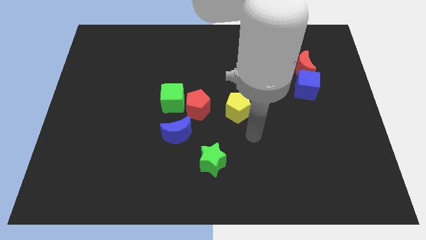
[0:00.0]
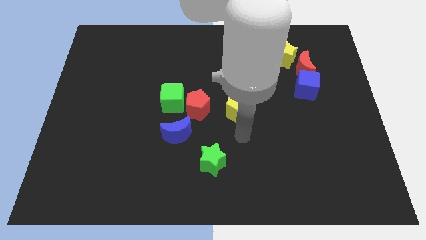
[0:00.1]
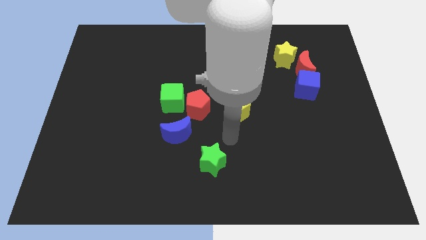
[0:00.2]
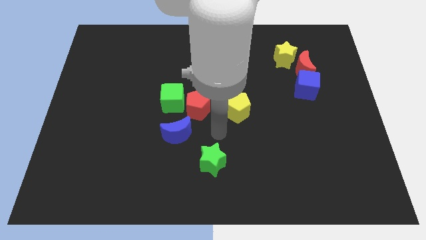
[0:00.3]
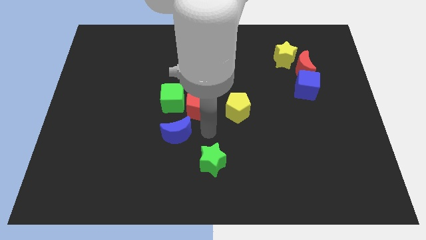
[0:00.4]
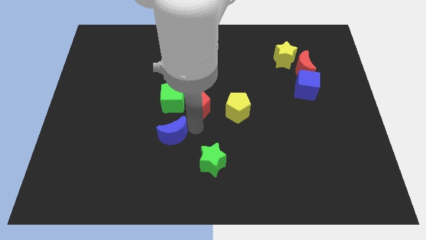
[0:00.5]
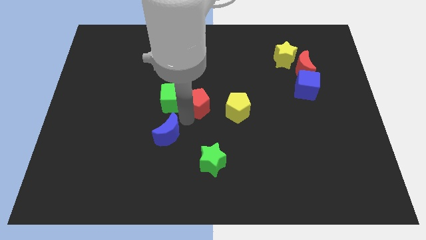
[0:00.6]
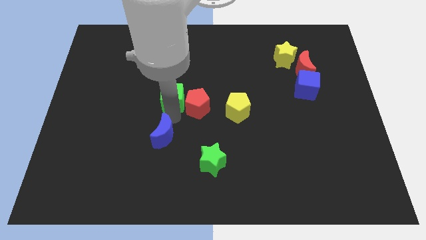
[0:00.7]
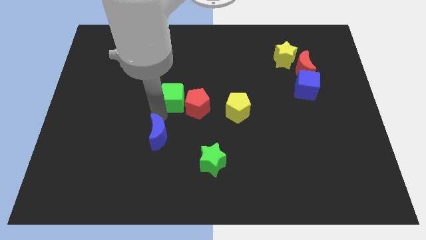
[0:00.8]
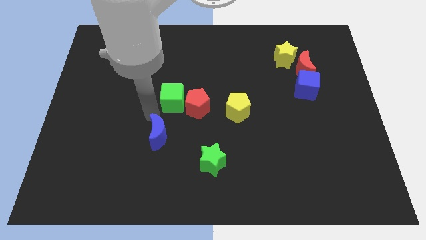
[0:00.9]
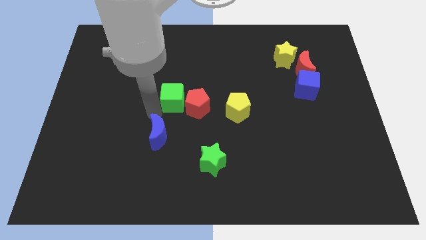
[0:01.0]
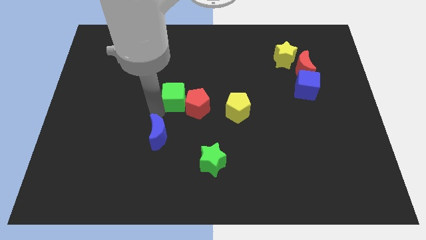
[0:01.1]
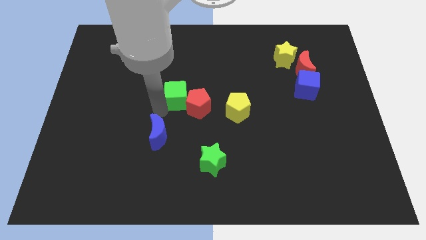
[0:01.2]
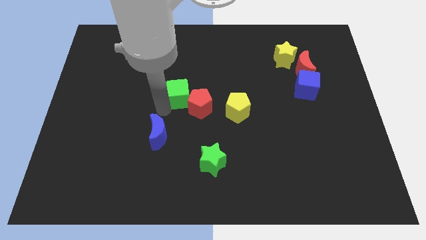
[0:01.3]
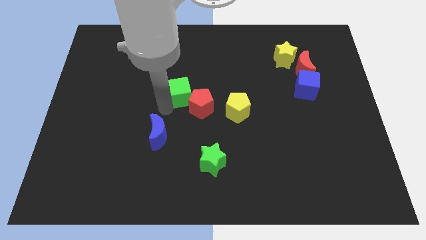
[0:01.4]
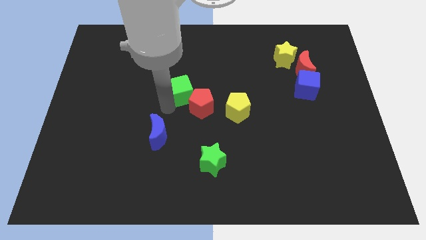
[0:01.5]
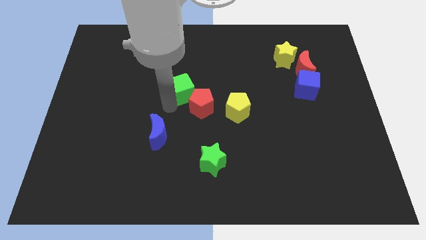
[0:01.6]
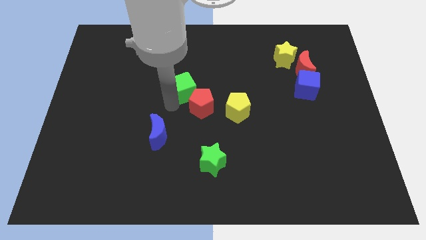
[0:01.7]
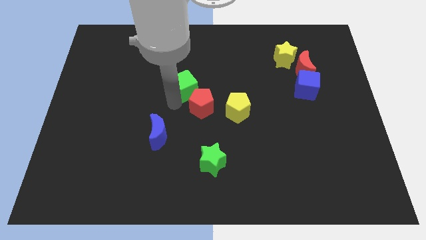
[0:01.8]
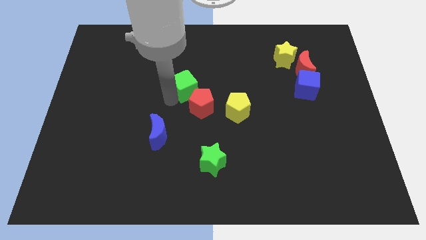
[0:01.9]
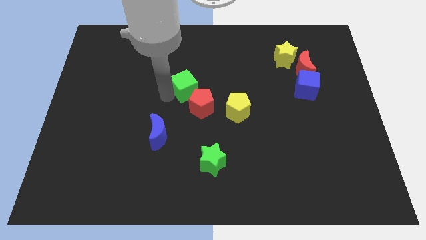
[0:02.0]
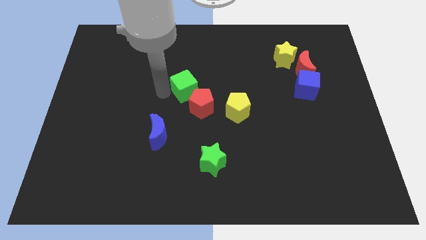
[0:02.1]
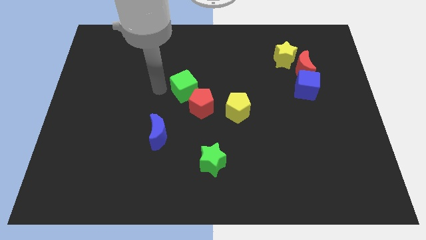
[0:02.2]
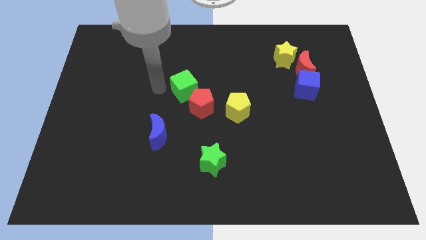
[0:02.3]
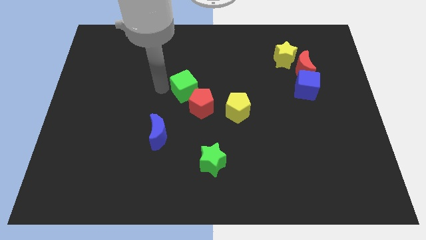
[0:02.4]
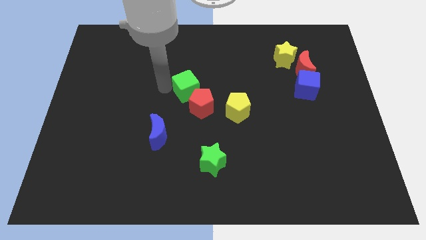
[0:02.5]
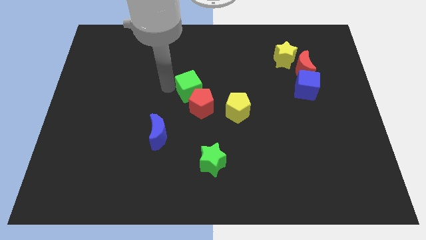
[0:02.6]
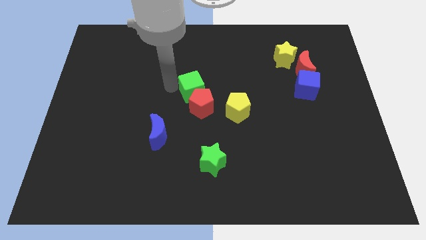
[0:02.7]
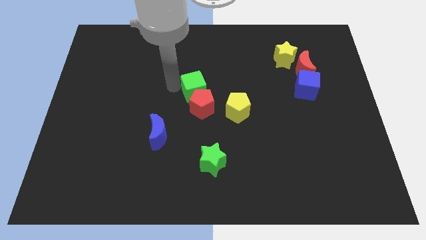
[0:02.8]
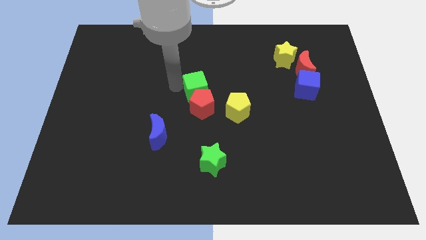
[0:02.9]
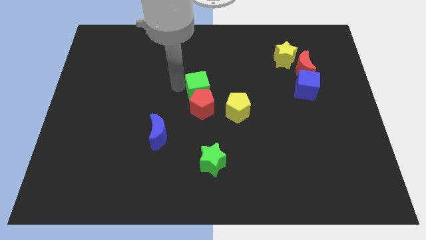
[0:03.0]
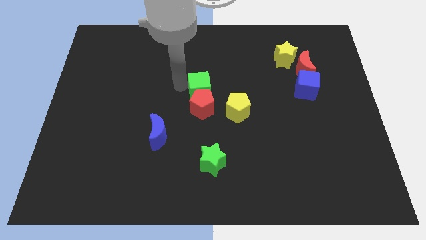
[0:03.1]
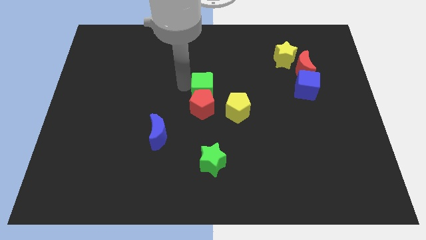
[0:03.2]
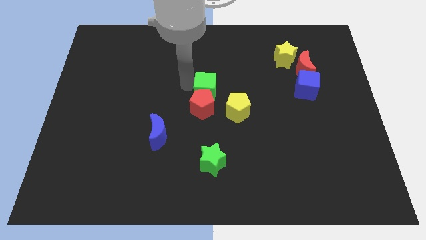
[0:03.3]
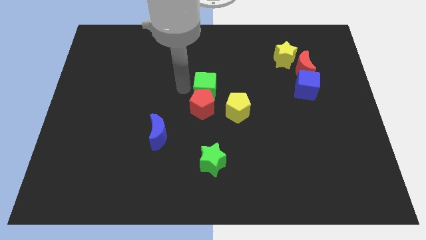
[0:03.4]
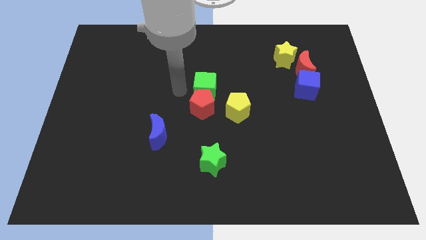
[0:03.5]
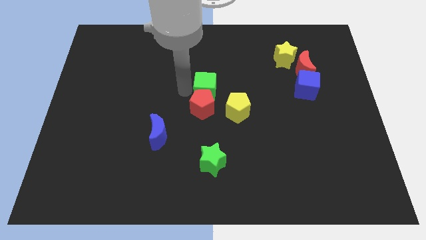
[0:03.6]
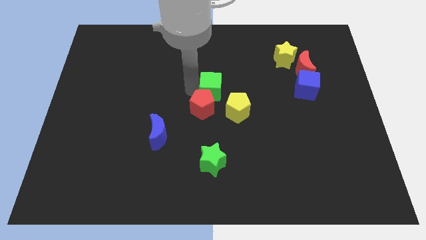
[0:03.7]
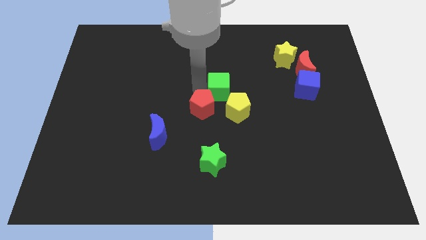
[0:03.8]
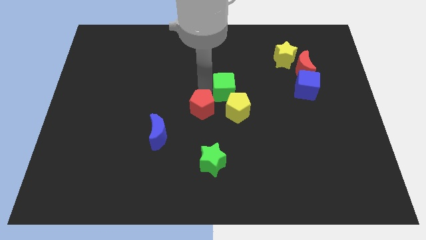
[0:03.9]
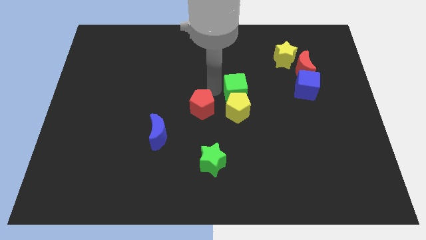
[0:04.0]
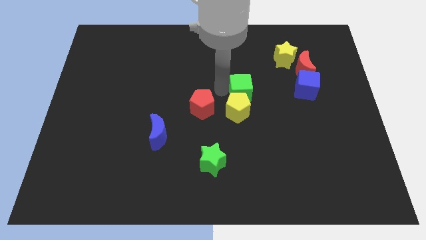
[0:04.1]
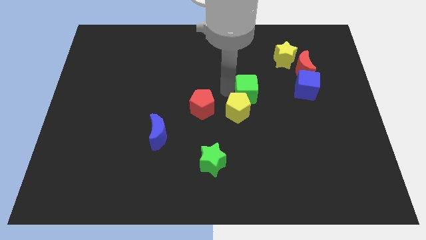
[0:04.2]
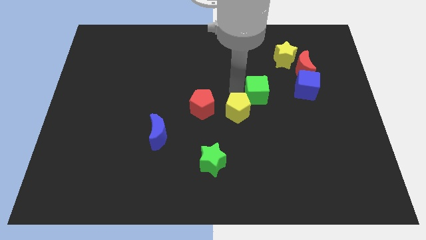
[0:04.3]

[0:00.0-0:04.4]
move the green cube to the right

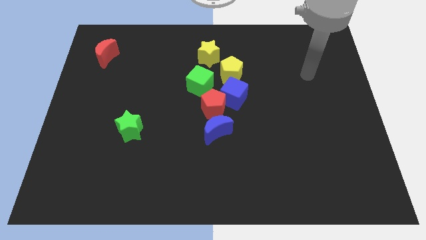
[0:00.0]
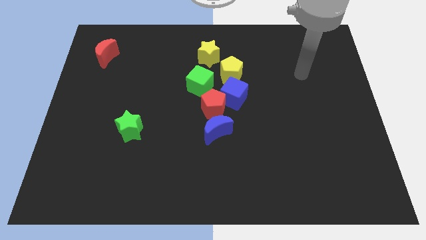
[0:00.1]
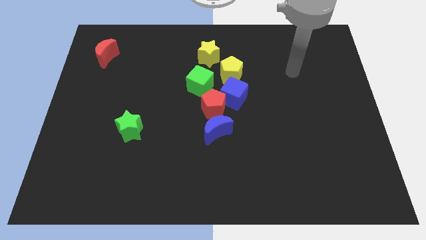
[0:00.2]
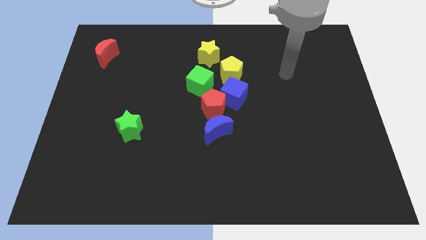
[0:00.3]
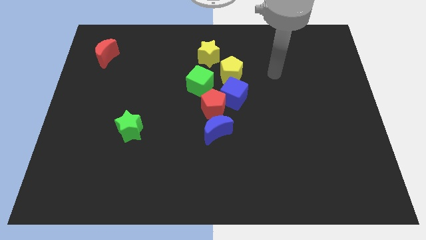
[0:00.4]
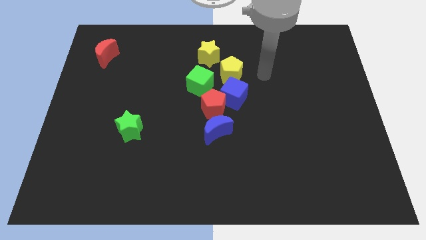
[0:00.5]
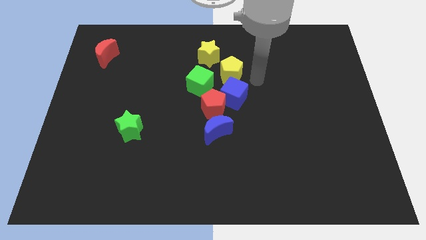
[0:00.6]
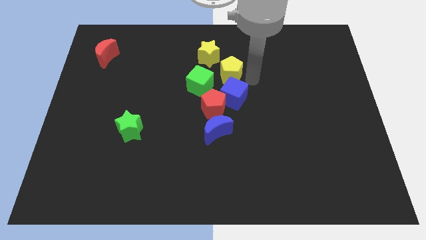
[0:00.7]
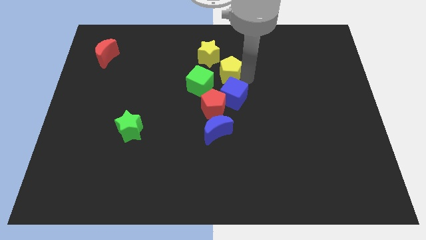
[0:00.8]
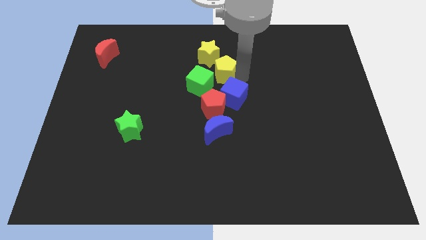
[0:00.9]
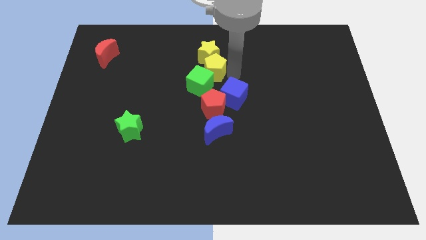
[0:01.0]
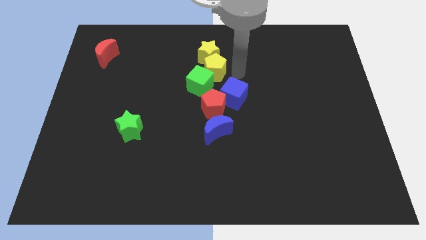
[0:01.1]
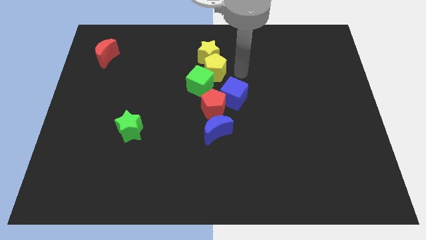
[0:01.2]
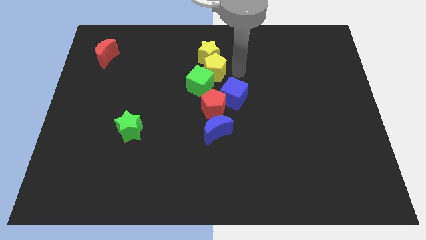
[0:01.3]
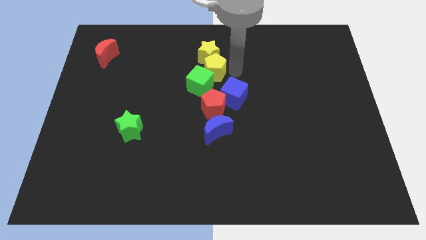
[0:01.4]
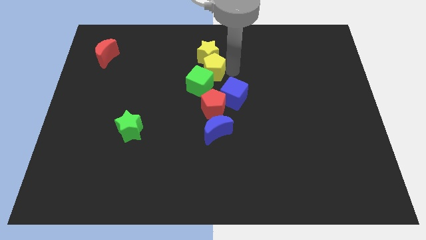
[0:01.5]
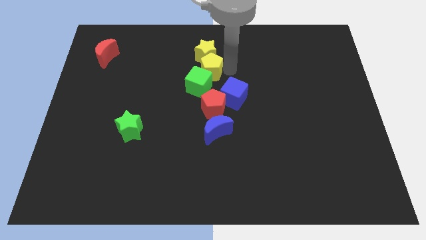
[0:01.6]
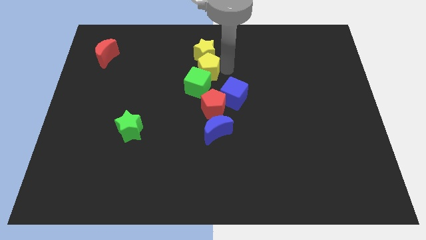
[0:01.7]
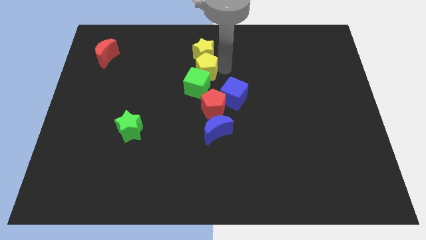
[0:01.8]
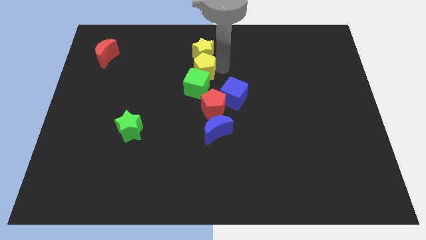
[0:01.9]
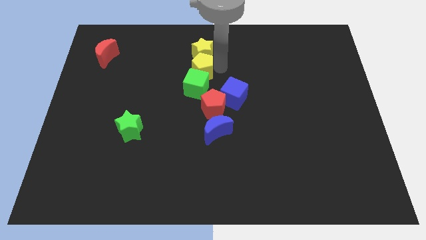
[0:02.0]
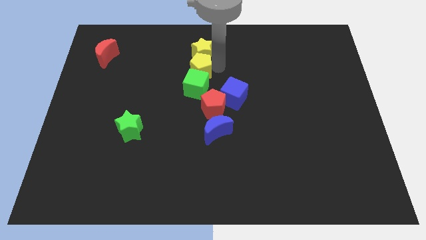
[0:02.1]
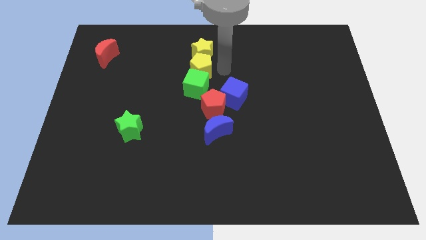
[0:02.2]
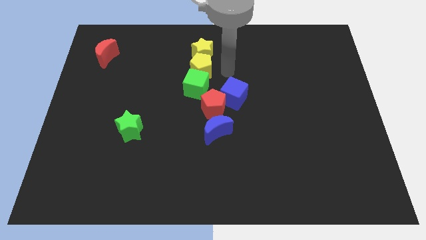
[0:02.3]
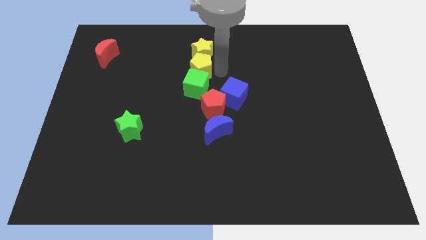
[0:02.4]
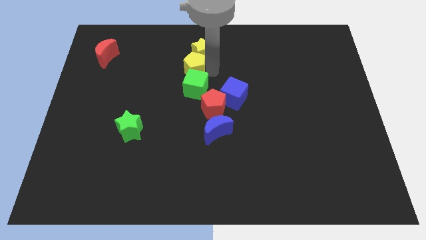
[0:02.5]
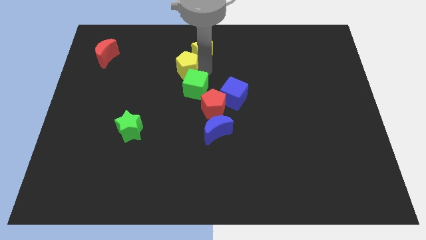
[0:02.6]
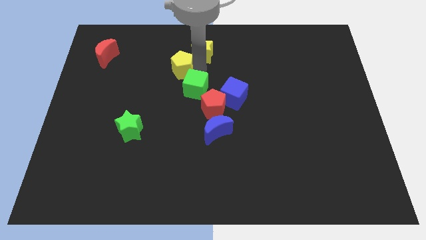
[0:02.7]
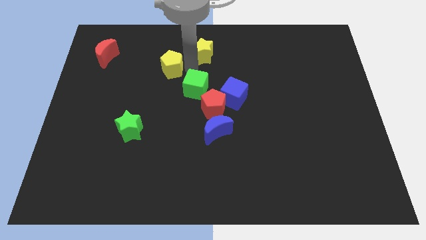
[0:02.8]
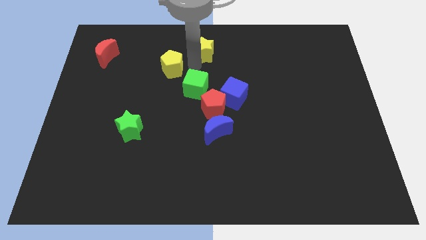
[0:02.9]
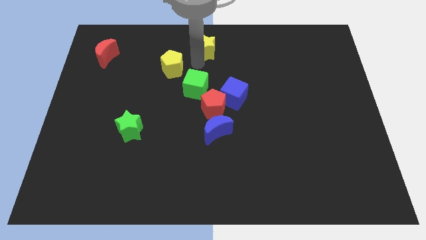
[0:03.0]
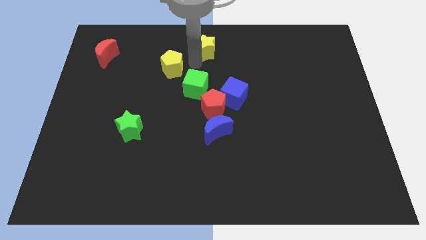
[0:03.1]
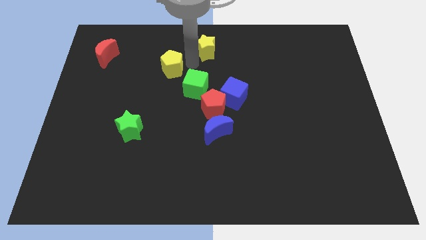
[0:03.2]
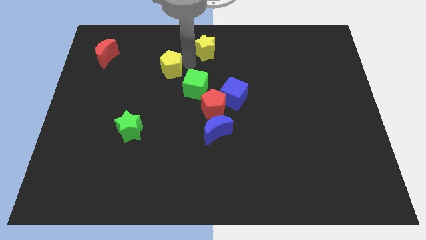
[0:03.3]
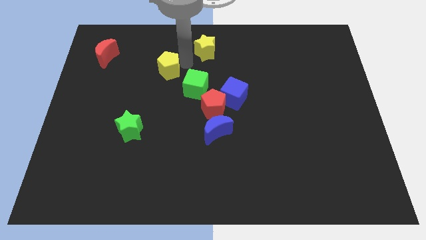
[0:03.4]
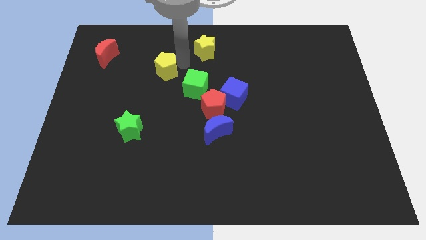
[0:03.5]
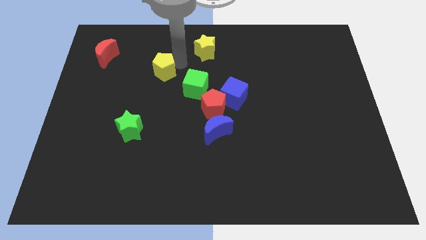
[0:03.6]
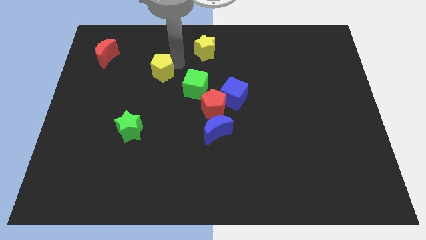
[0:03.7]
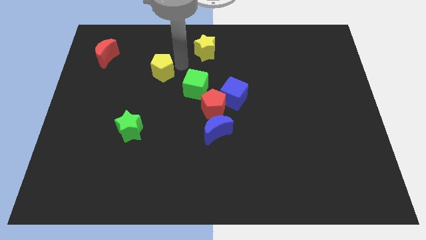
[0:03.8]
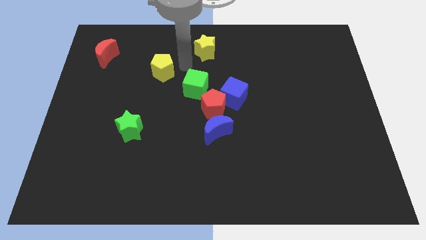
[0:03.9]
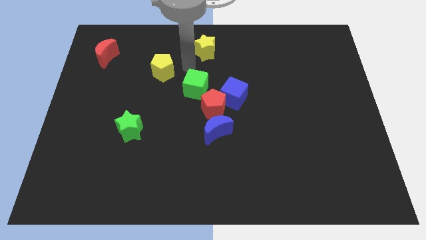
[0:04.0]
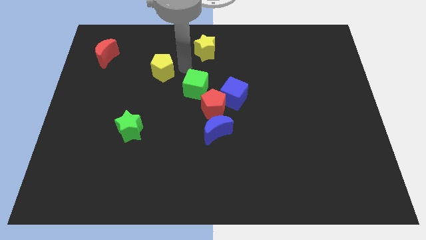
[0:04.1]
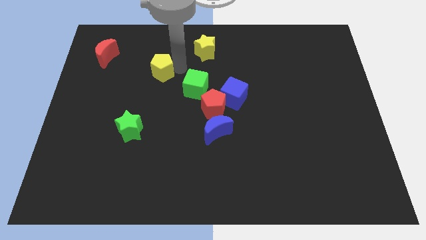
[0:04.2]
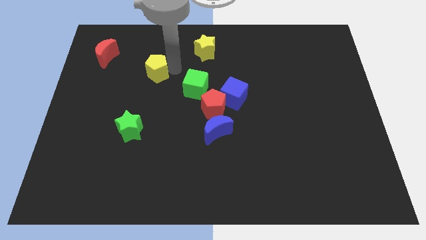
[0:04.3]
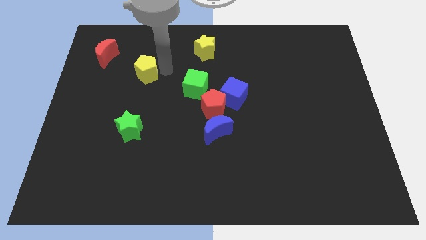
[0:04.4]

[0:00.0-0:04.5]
move the yellow pentagon left
